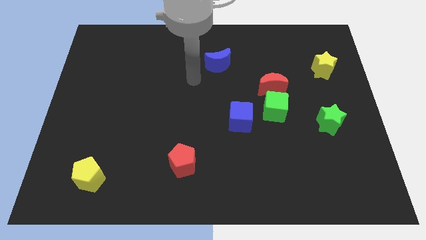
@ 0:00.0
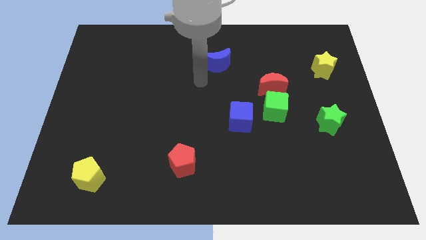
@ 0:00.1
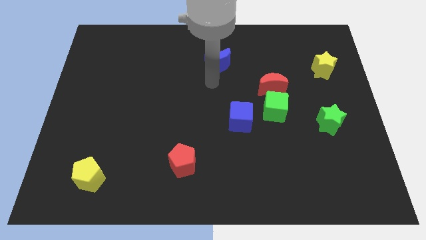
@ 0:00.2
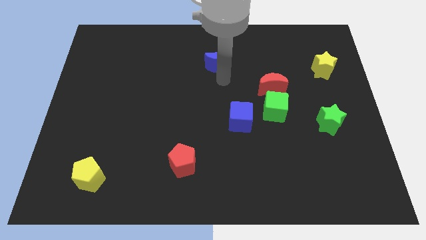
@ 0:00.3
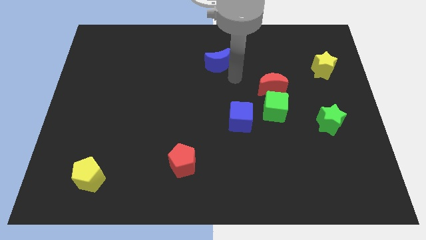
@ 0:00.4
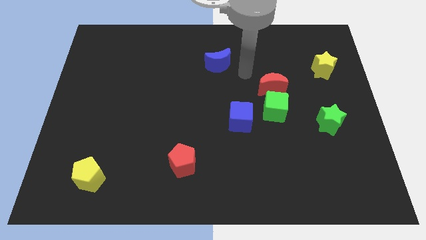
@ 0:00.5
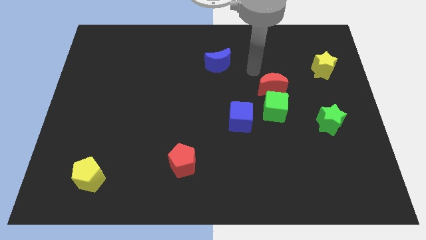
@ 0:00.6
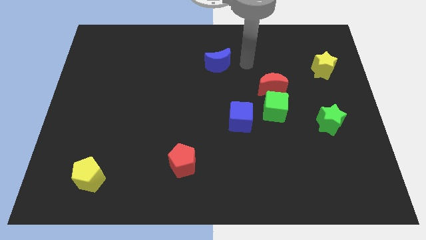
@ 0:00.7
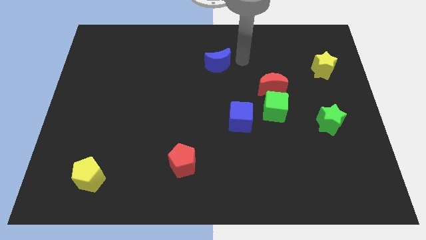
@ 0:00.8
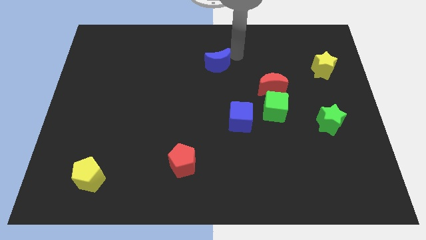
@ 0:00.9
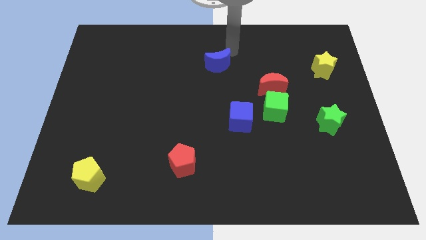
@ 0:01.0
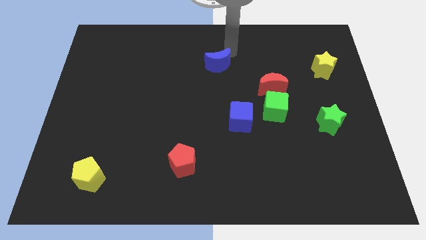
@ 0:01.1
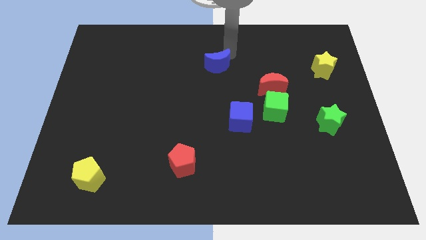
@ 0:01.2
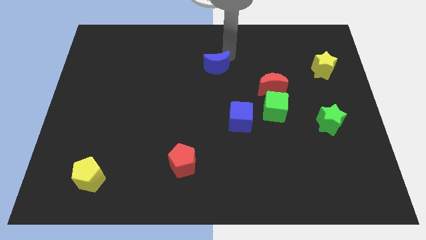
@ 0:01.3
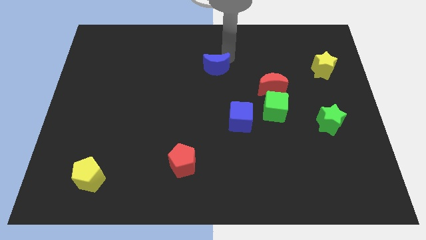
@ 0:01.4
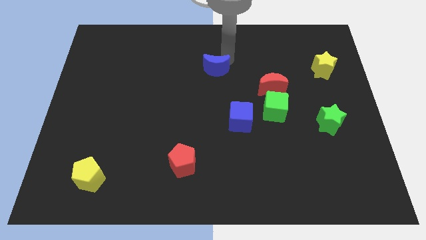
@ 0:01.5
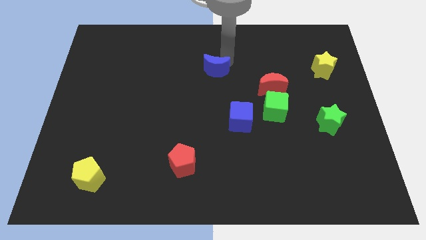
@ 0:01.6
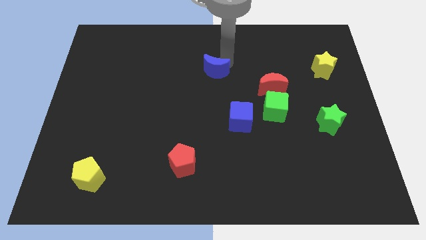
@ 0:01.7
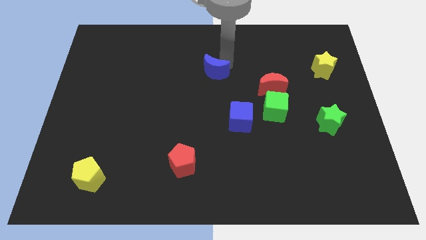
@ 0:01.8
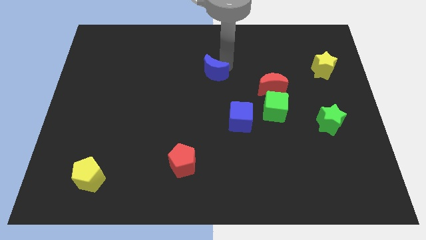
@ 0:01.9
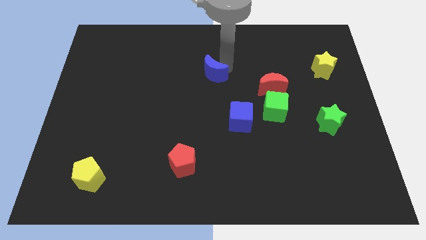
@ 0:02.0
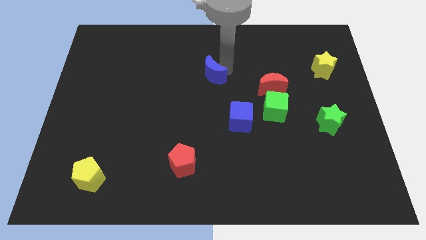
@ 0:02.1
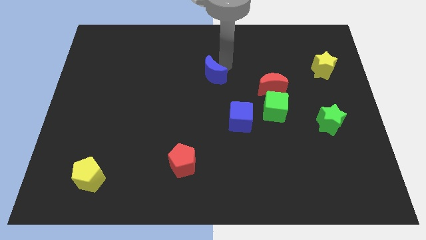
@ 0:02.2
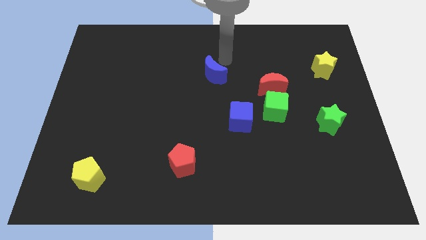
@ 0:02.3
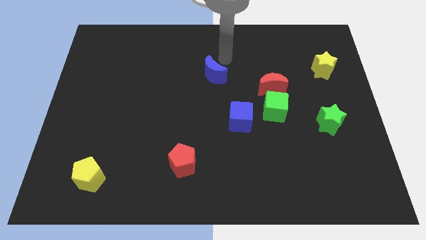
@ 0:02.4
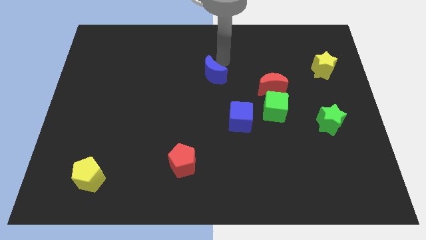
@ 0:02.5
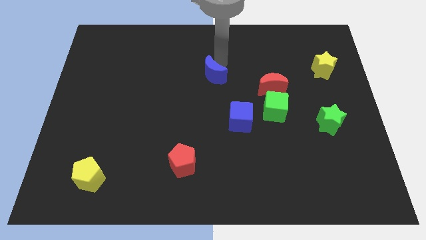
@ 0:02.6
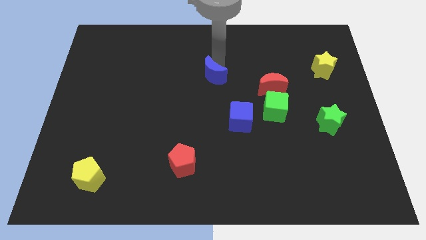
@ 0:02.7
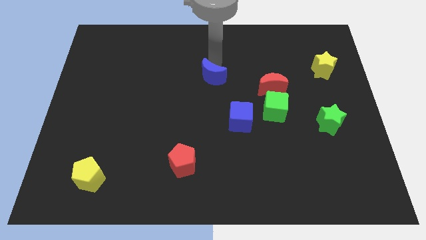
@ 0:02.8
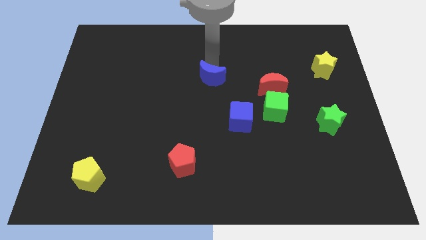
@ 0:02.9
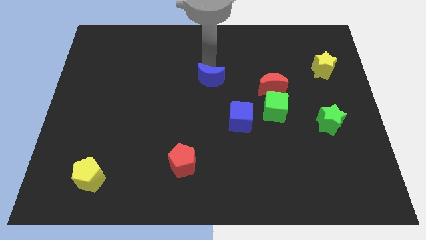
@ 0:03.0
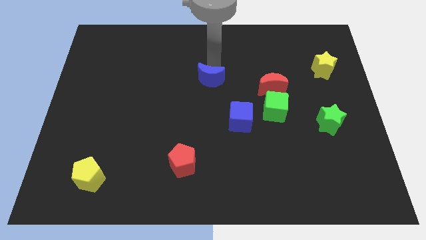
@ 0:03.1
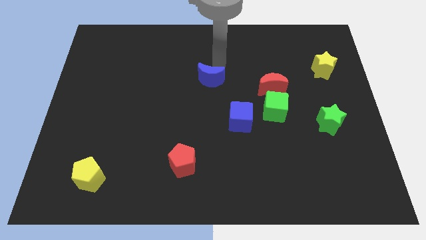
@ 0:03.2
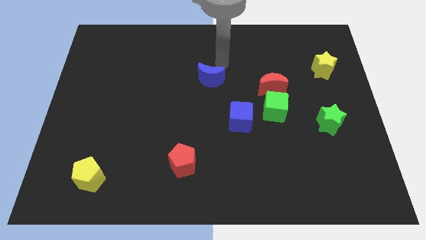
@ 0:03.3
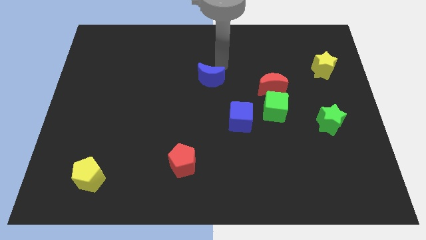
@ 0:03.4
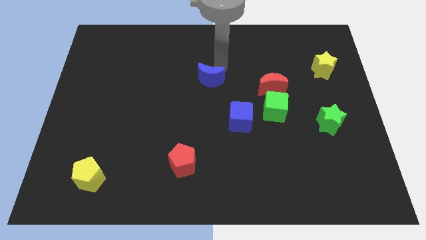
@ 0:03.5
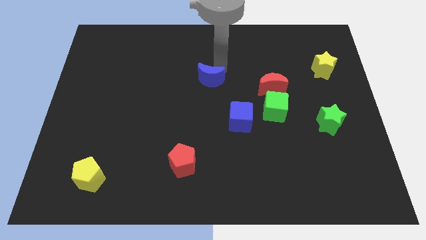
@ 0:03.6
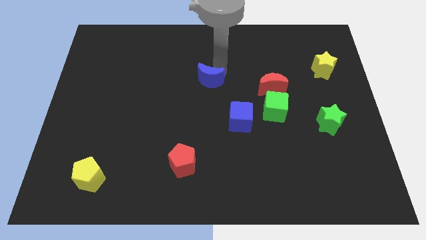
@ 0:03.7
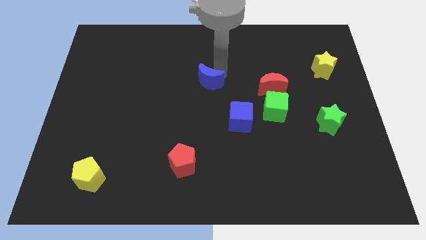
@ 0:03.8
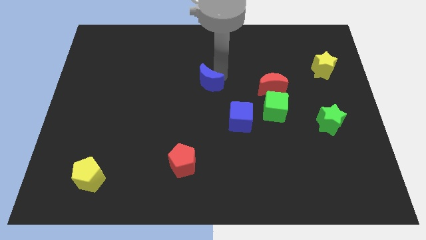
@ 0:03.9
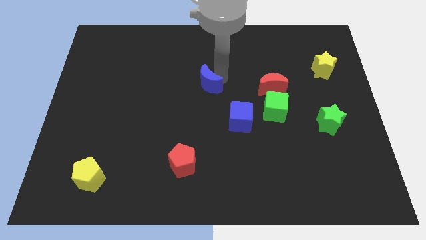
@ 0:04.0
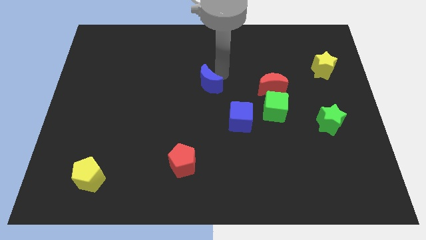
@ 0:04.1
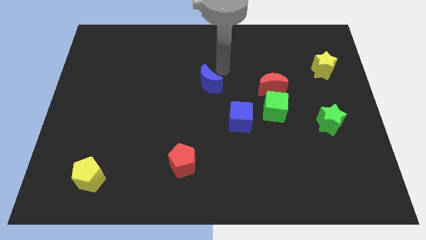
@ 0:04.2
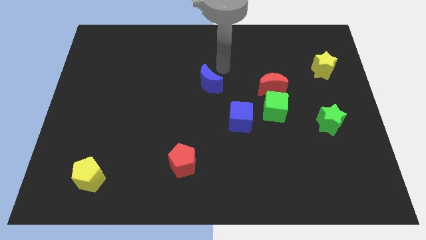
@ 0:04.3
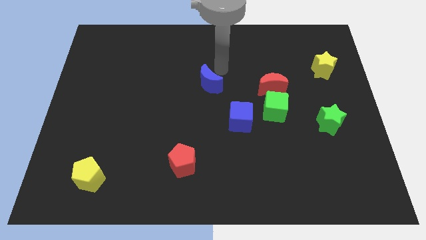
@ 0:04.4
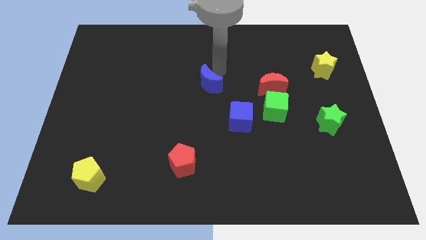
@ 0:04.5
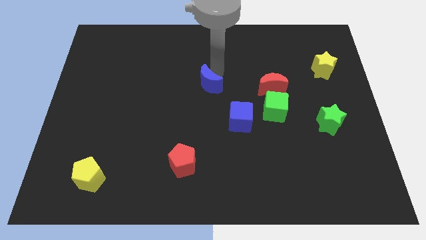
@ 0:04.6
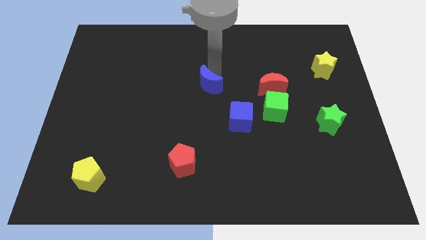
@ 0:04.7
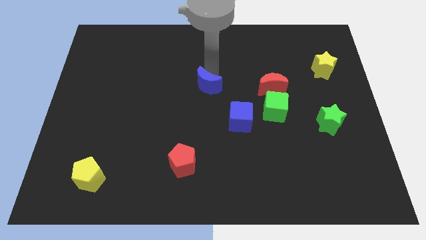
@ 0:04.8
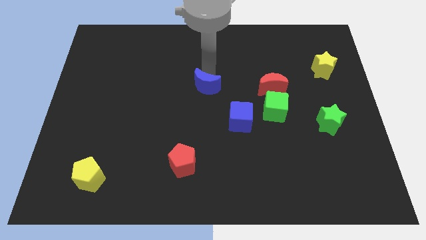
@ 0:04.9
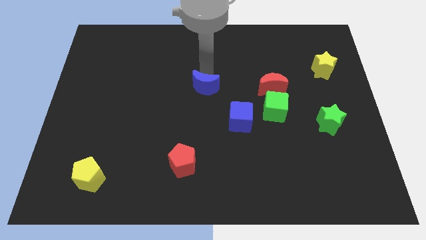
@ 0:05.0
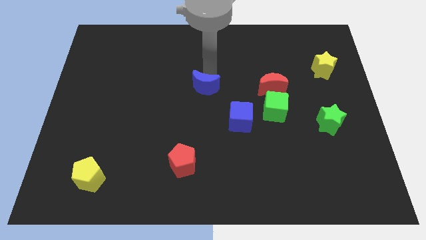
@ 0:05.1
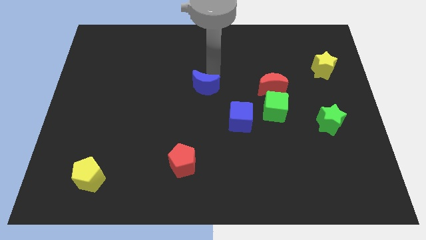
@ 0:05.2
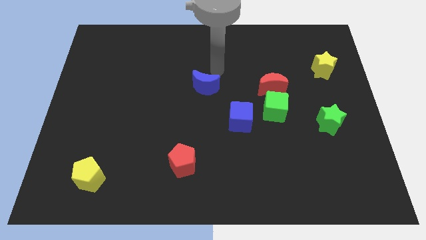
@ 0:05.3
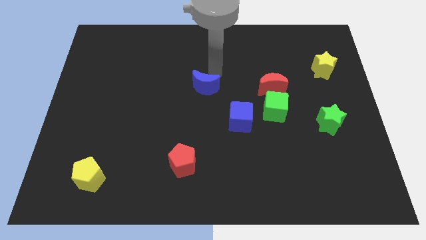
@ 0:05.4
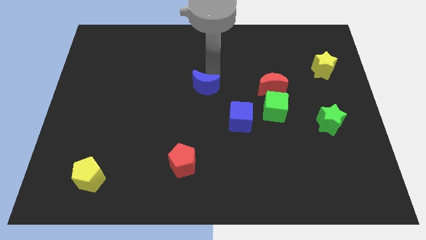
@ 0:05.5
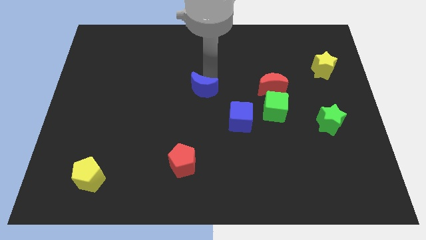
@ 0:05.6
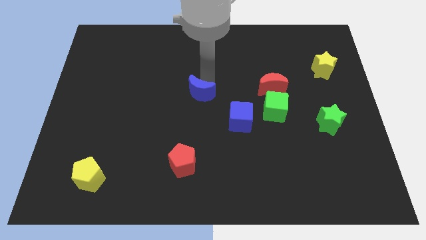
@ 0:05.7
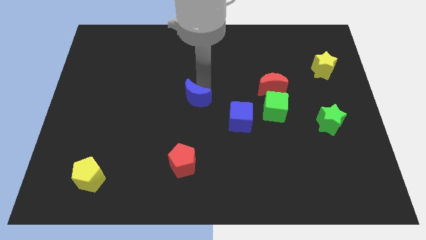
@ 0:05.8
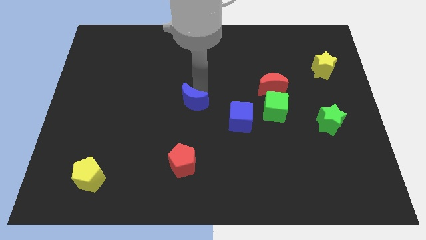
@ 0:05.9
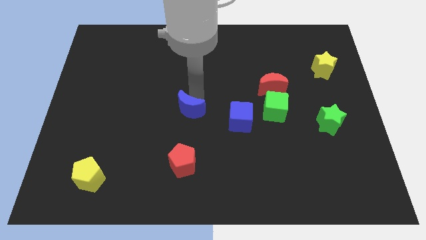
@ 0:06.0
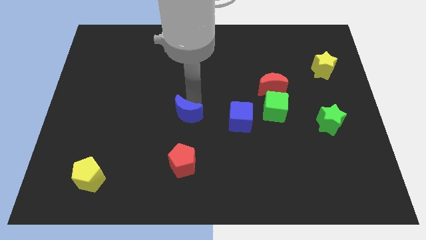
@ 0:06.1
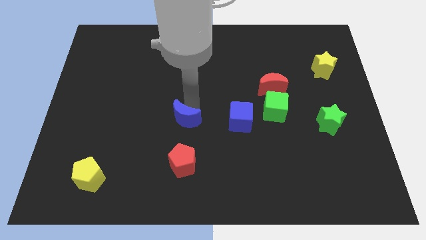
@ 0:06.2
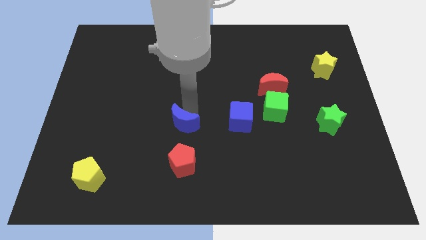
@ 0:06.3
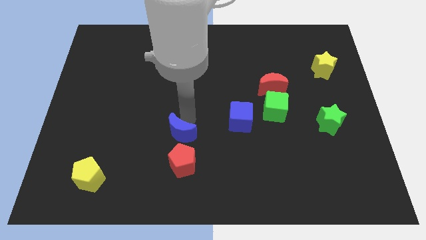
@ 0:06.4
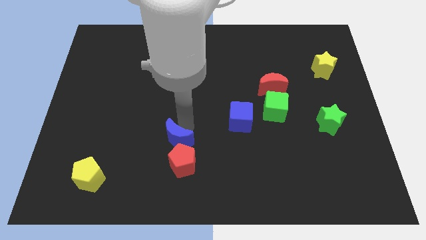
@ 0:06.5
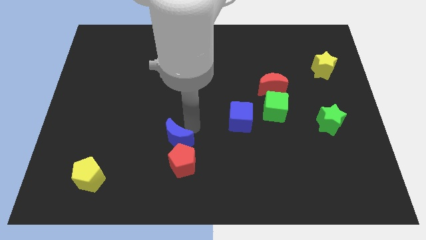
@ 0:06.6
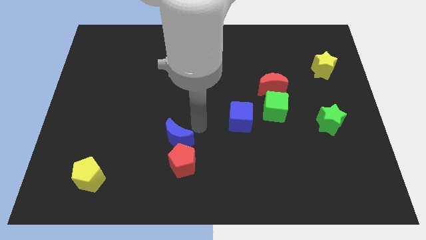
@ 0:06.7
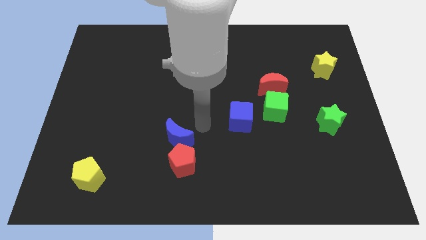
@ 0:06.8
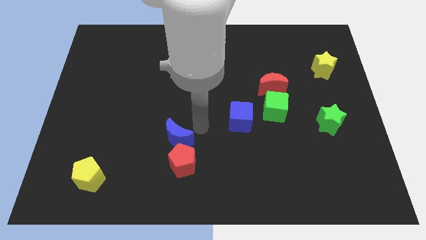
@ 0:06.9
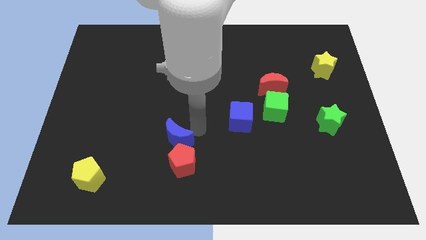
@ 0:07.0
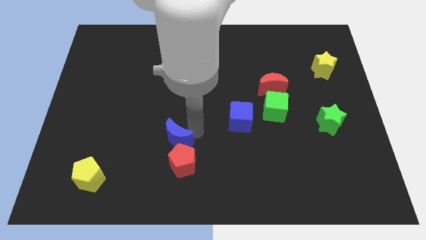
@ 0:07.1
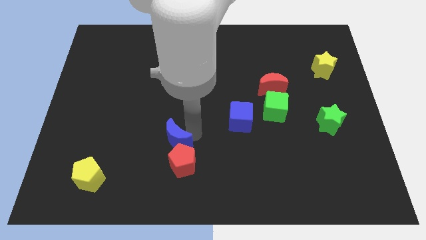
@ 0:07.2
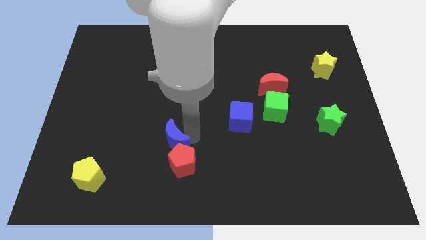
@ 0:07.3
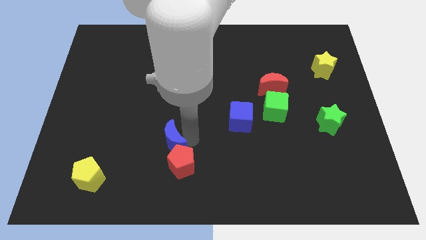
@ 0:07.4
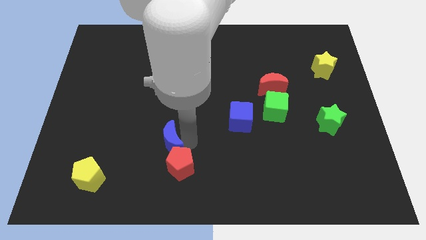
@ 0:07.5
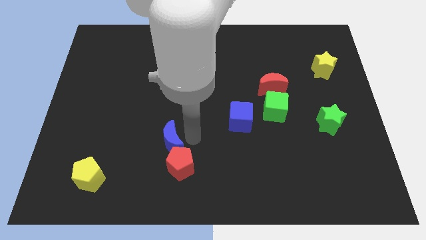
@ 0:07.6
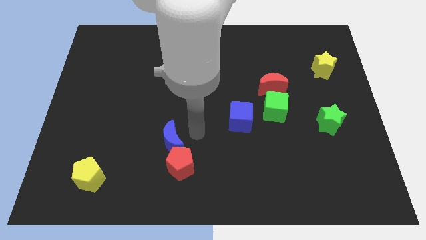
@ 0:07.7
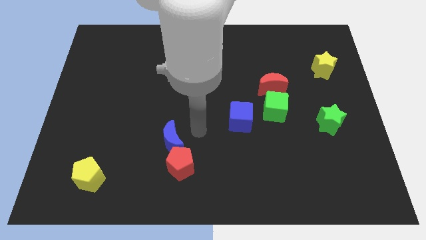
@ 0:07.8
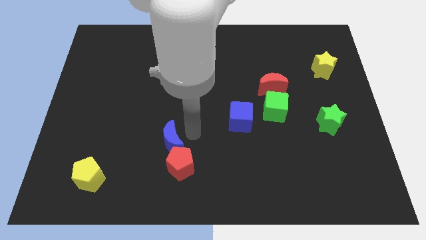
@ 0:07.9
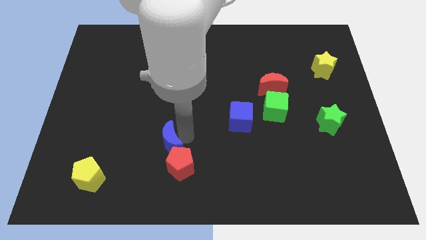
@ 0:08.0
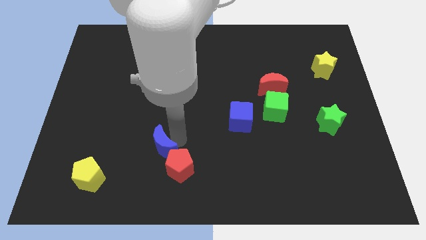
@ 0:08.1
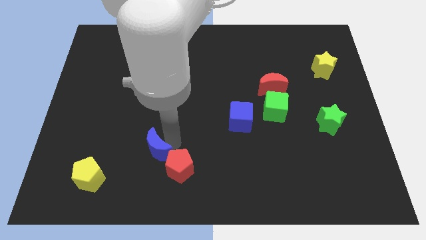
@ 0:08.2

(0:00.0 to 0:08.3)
move the blue moon to the left side of the red pentagon
